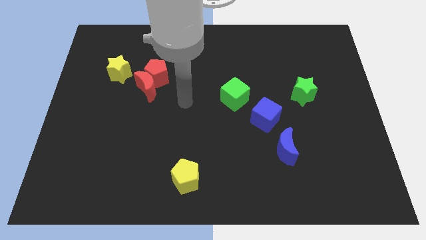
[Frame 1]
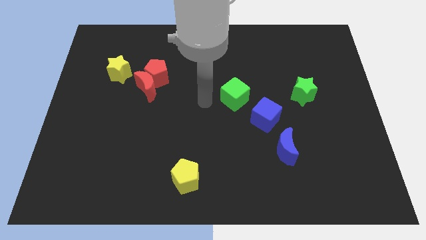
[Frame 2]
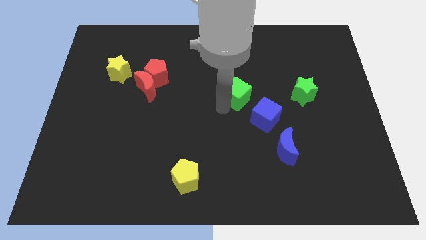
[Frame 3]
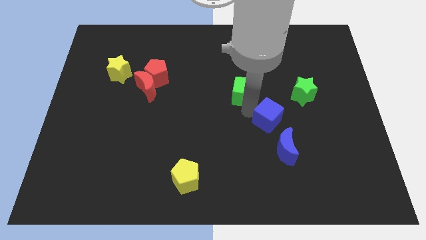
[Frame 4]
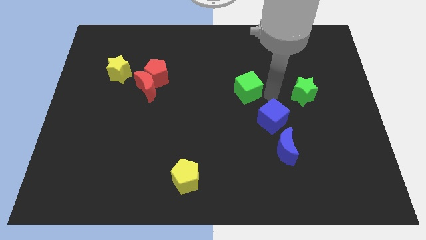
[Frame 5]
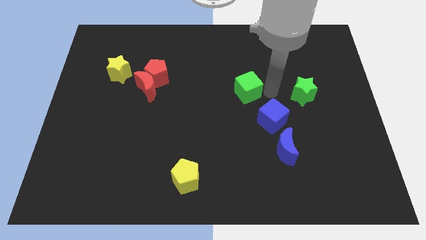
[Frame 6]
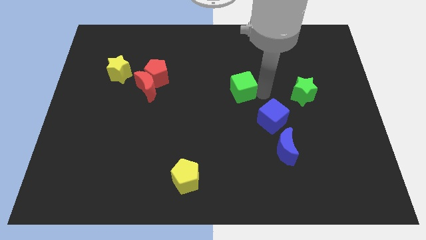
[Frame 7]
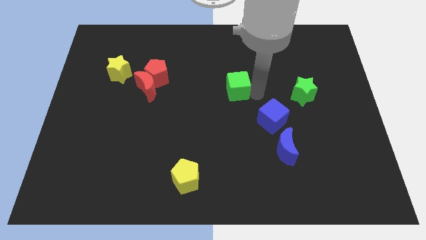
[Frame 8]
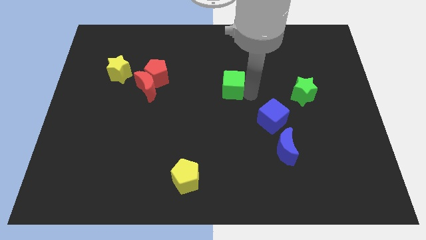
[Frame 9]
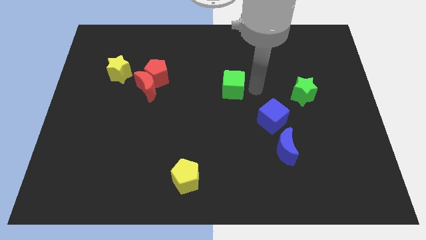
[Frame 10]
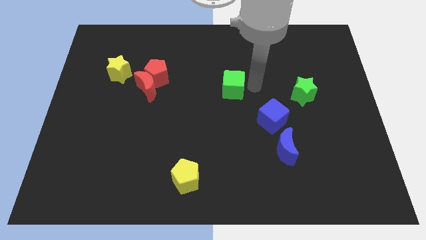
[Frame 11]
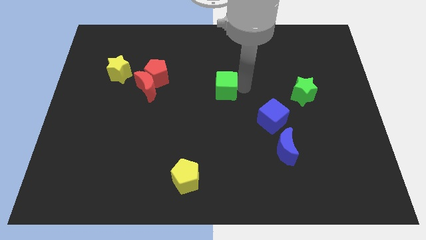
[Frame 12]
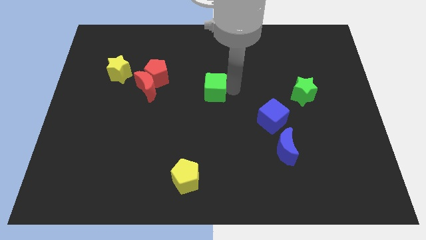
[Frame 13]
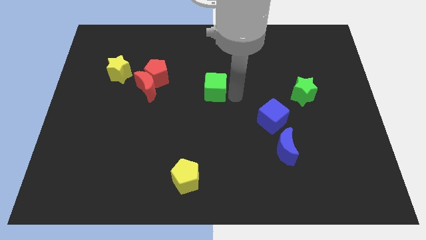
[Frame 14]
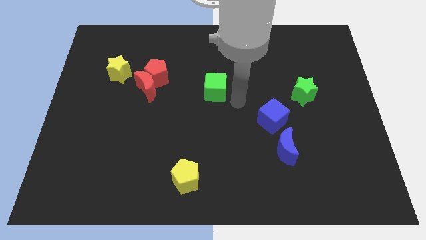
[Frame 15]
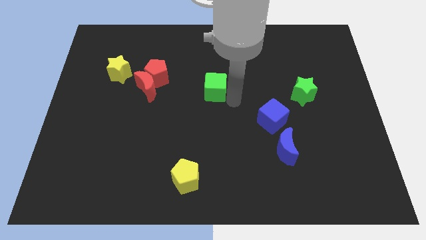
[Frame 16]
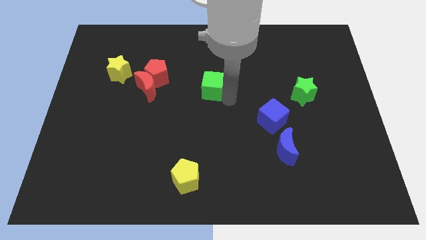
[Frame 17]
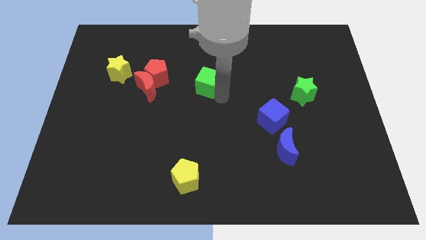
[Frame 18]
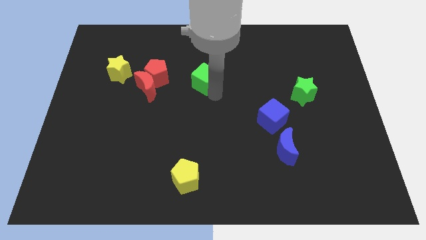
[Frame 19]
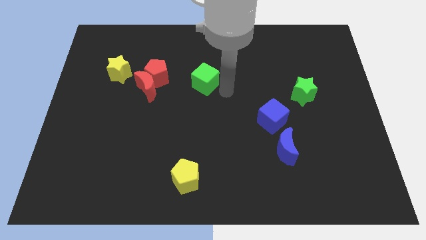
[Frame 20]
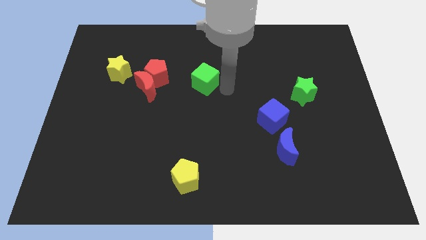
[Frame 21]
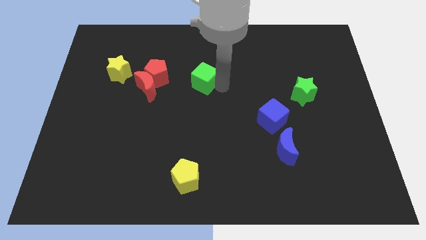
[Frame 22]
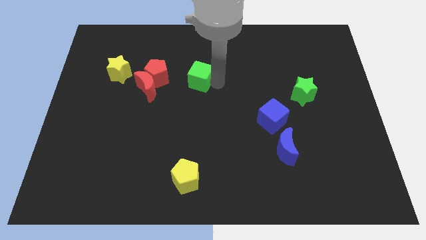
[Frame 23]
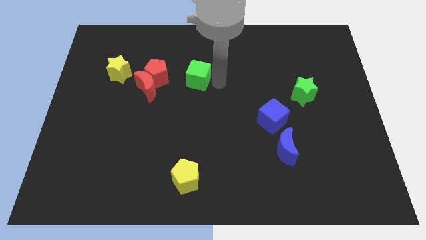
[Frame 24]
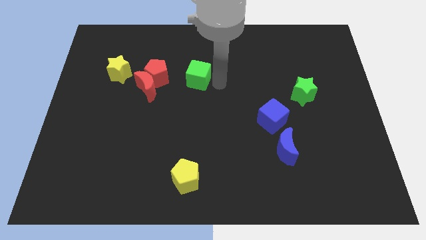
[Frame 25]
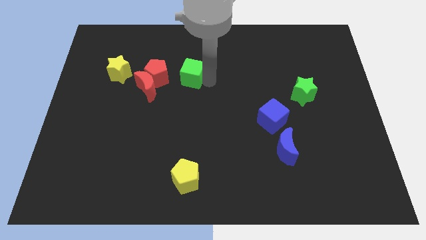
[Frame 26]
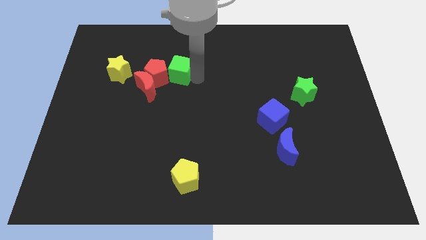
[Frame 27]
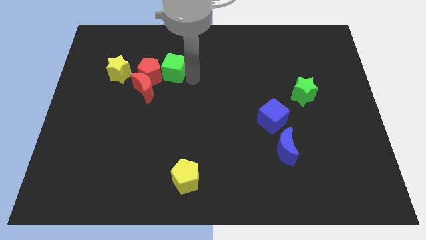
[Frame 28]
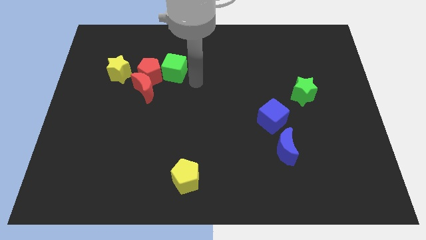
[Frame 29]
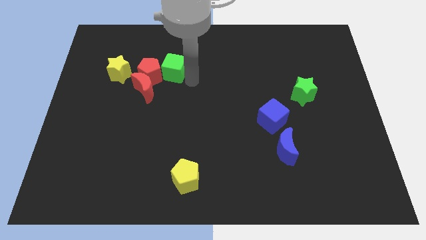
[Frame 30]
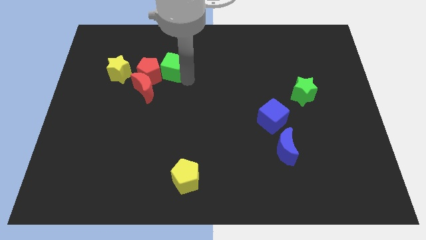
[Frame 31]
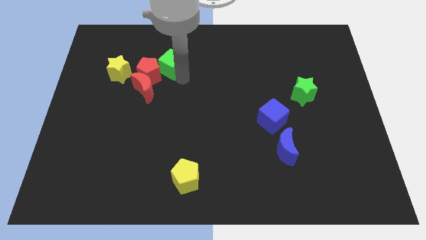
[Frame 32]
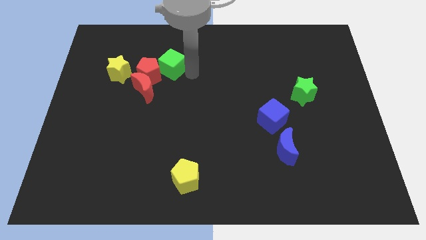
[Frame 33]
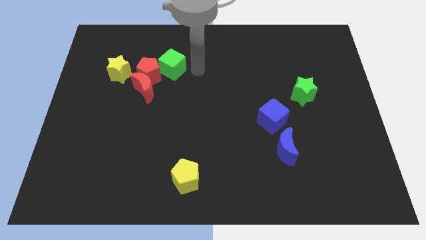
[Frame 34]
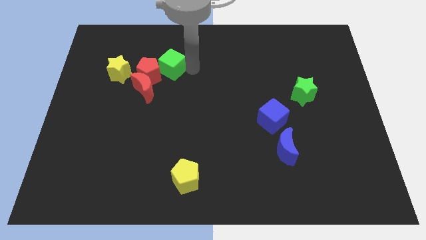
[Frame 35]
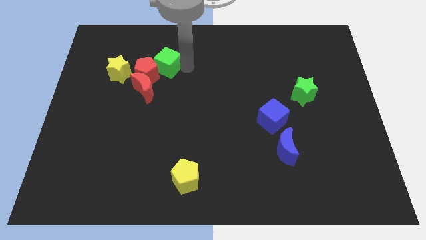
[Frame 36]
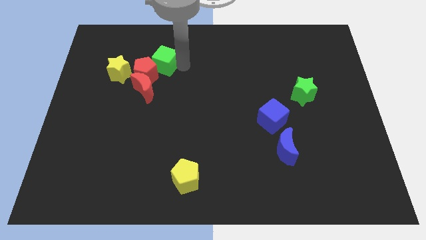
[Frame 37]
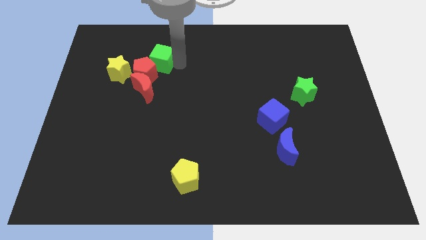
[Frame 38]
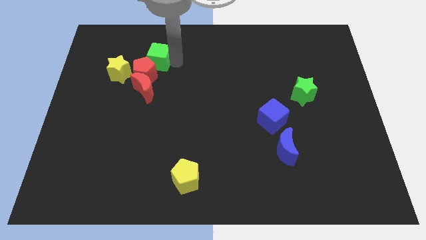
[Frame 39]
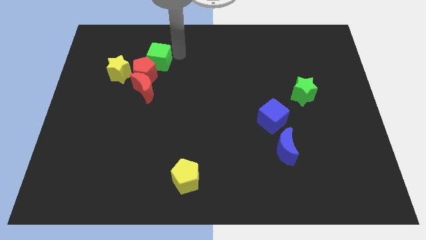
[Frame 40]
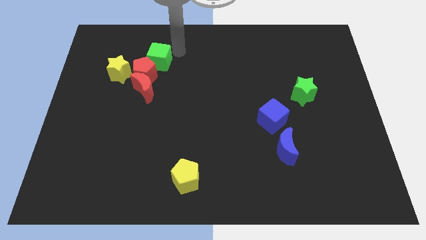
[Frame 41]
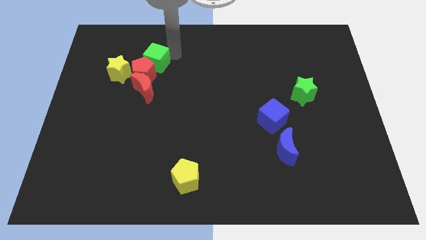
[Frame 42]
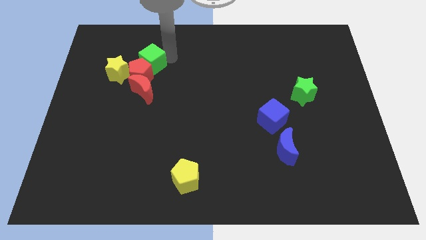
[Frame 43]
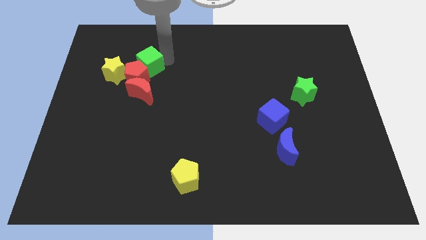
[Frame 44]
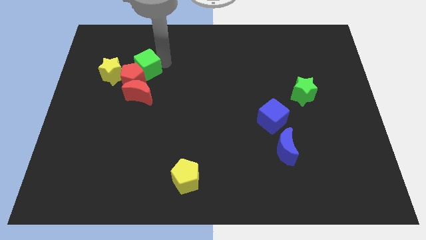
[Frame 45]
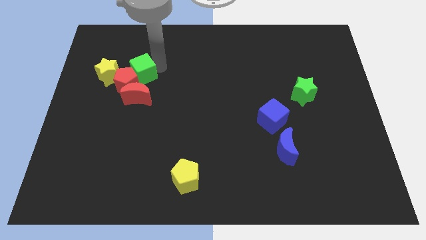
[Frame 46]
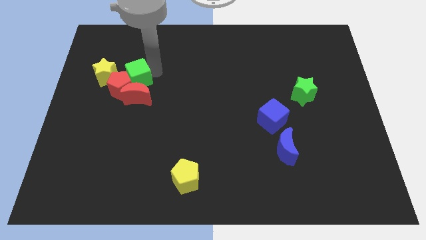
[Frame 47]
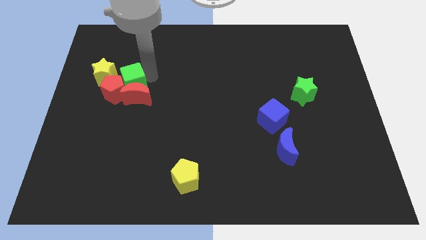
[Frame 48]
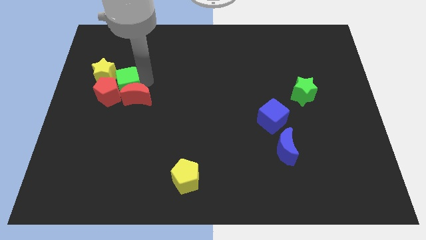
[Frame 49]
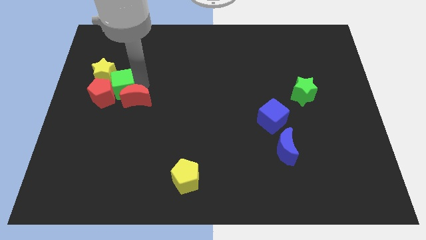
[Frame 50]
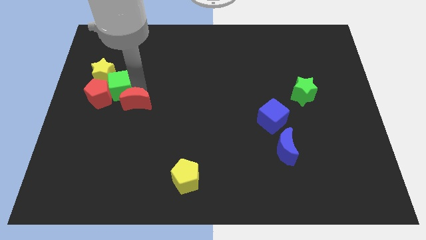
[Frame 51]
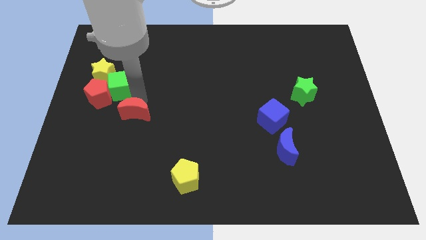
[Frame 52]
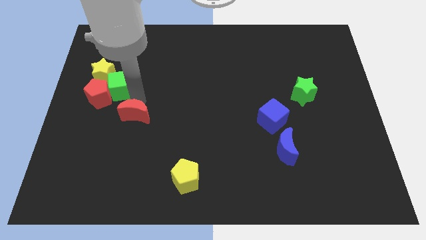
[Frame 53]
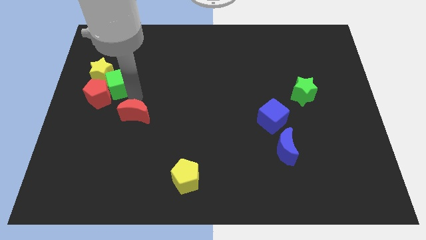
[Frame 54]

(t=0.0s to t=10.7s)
push the green cube towards the yellow star

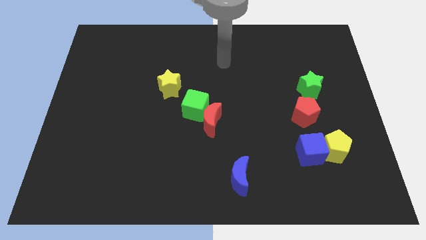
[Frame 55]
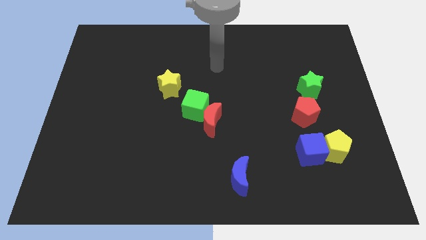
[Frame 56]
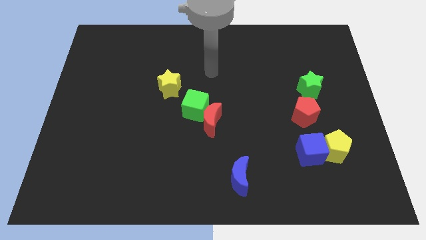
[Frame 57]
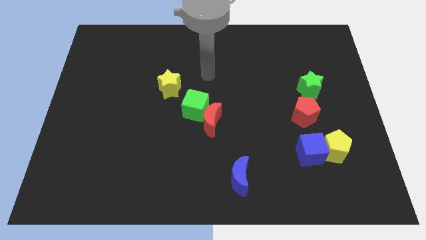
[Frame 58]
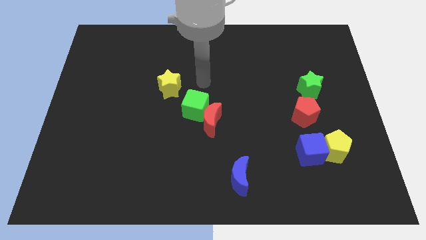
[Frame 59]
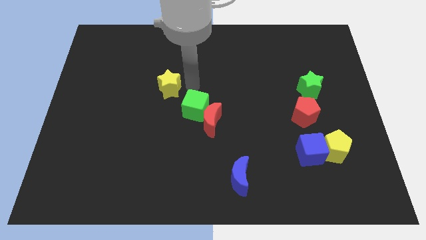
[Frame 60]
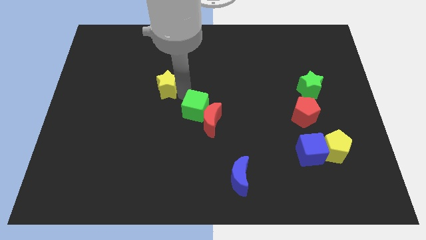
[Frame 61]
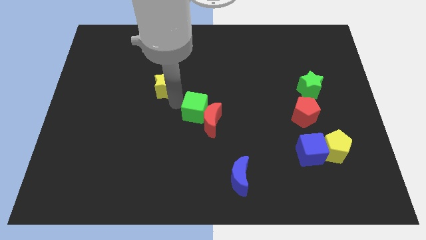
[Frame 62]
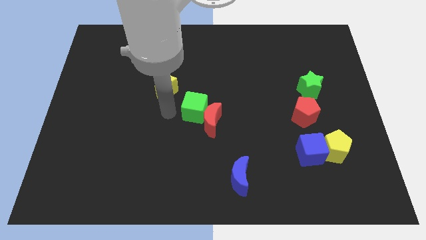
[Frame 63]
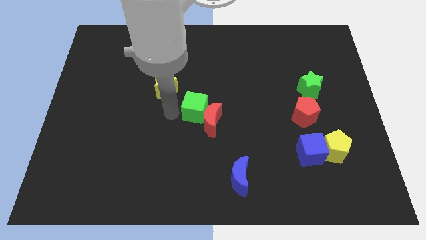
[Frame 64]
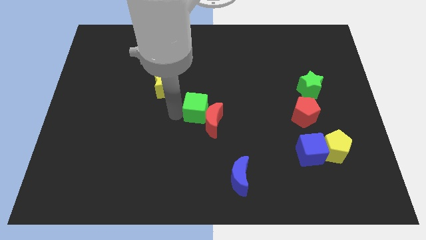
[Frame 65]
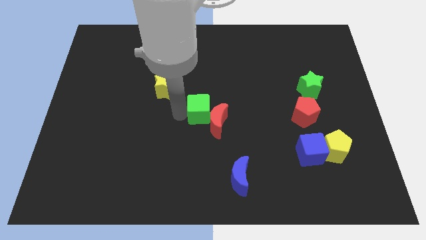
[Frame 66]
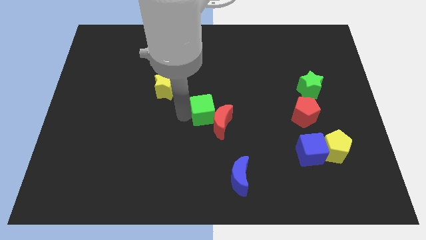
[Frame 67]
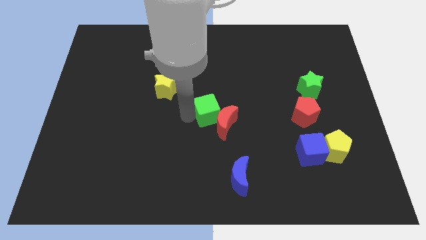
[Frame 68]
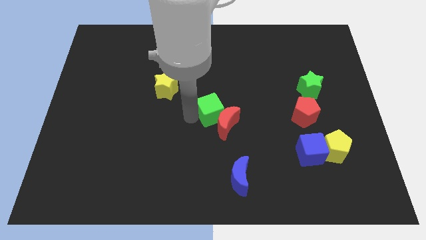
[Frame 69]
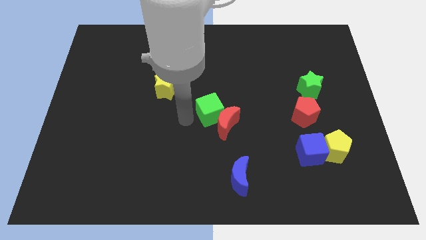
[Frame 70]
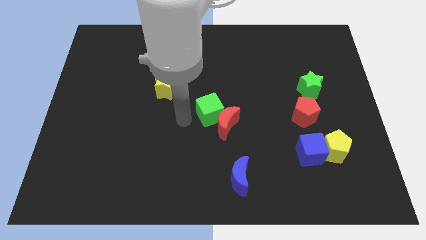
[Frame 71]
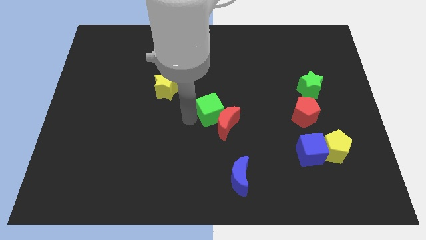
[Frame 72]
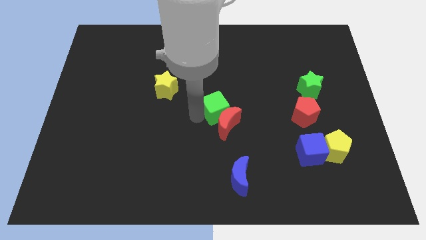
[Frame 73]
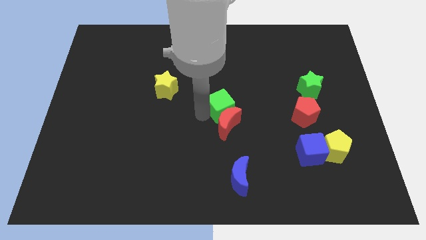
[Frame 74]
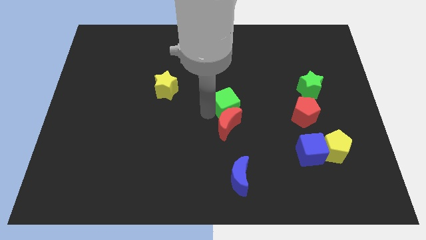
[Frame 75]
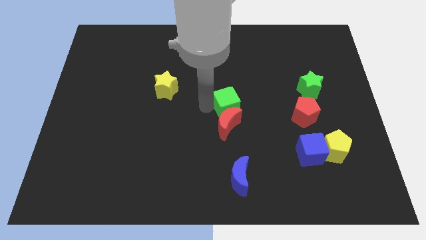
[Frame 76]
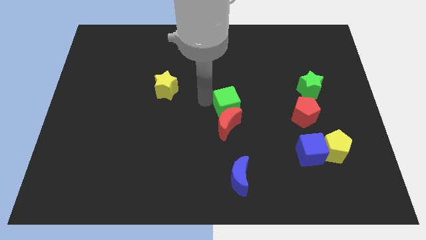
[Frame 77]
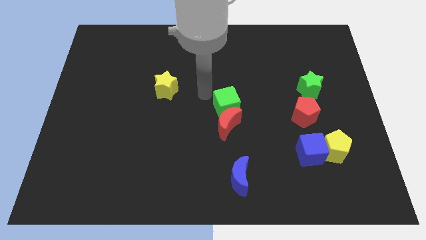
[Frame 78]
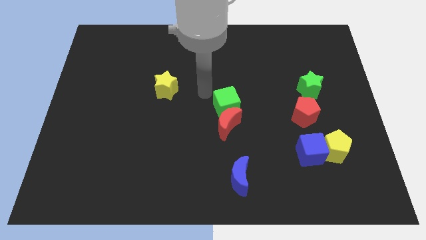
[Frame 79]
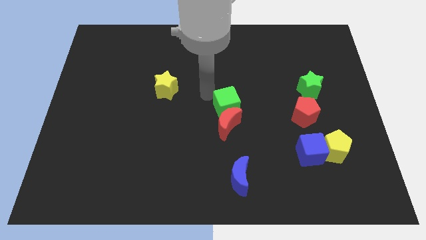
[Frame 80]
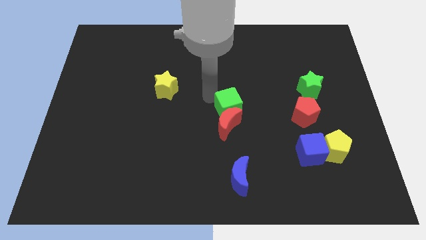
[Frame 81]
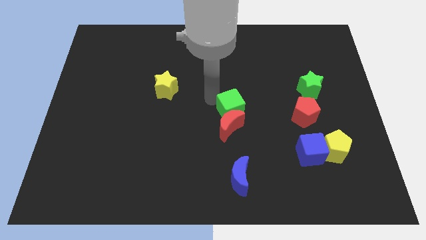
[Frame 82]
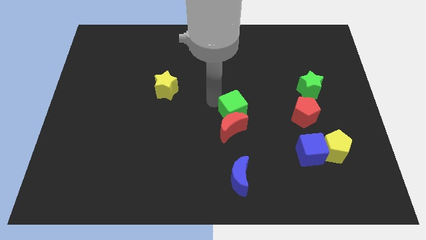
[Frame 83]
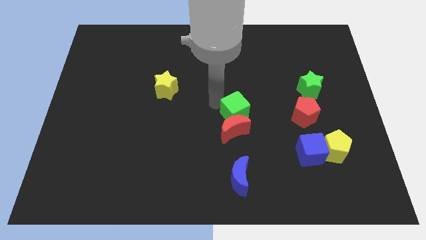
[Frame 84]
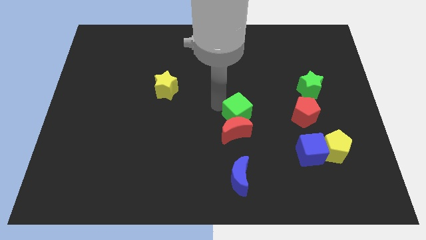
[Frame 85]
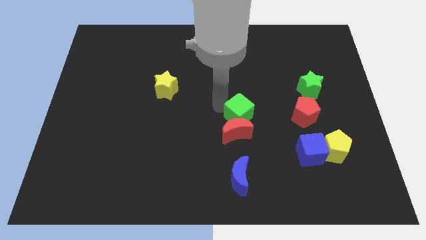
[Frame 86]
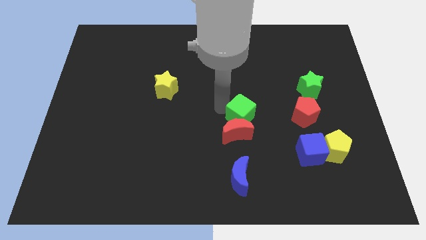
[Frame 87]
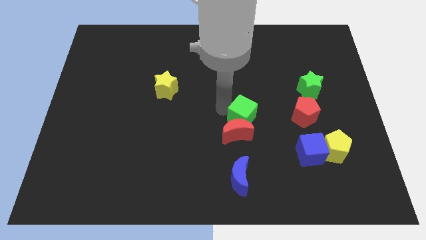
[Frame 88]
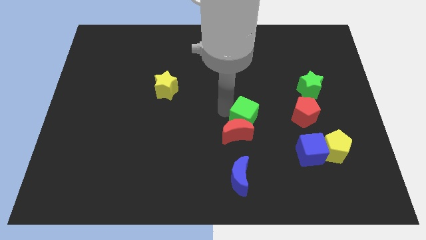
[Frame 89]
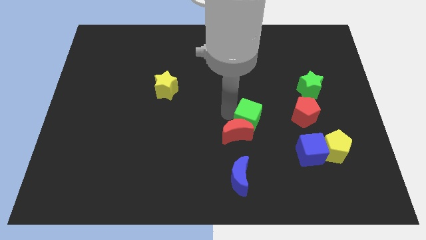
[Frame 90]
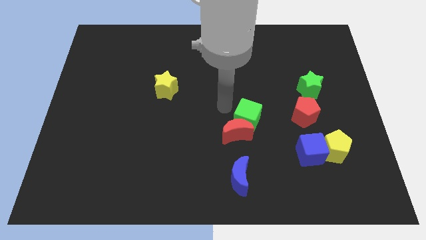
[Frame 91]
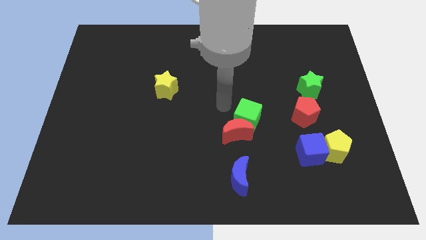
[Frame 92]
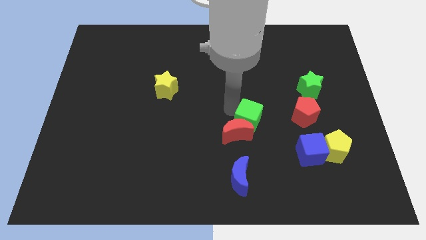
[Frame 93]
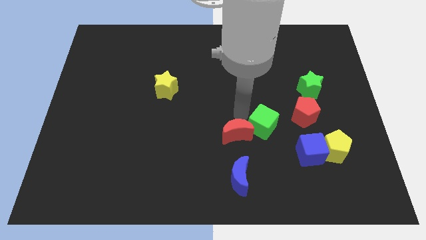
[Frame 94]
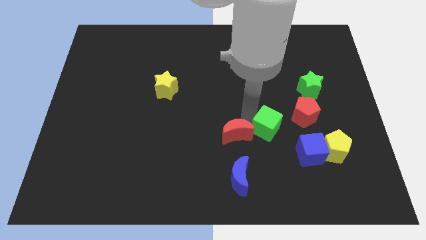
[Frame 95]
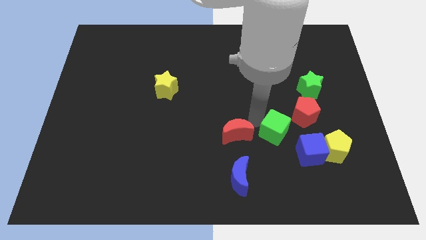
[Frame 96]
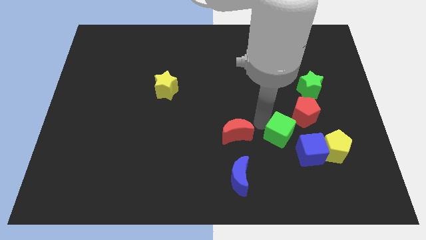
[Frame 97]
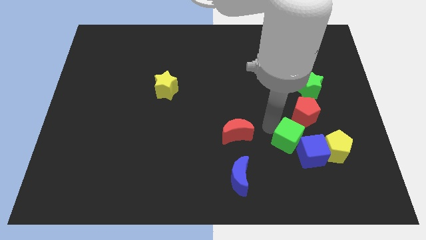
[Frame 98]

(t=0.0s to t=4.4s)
move the green cube towards the blue cube
